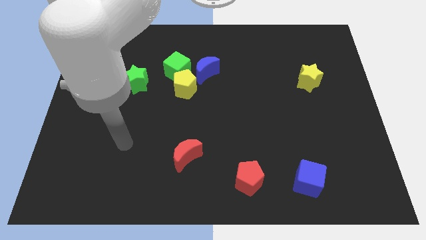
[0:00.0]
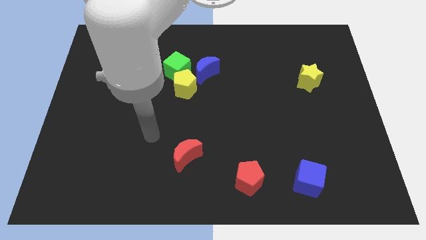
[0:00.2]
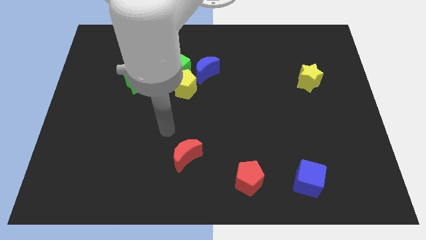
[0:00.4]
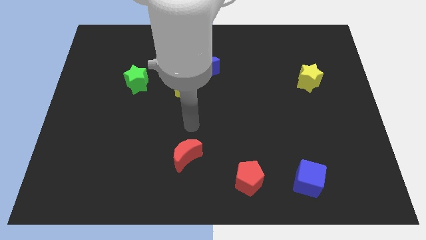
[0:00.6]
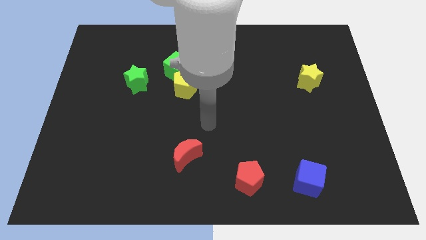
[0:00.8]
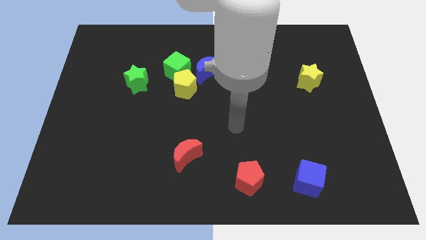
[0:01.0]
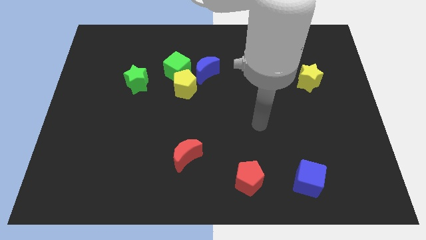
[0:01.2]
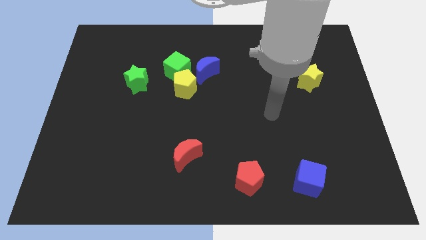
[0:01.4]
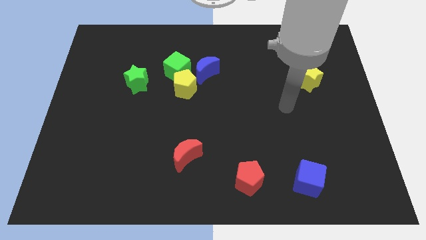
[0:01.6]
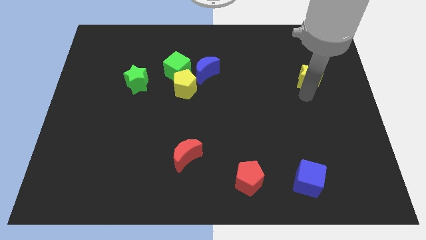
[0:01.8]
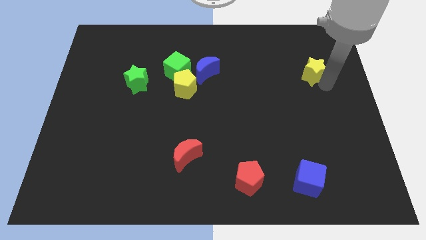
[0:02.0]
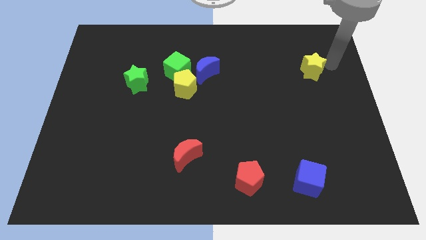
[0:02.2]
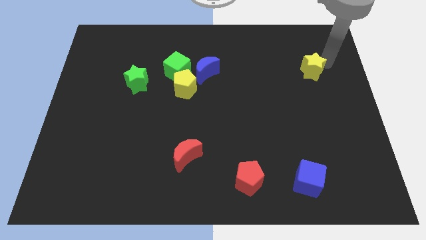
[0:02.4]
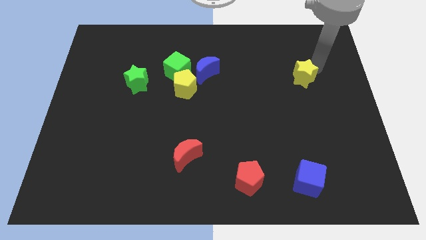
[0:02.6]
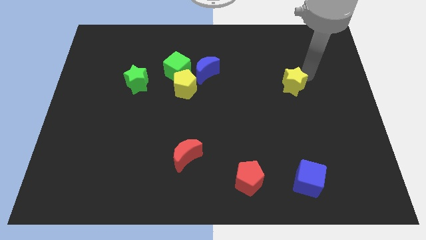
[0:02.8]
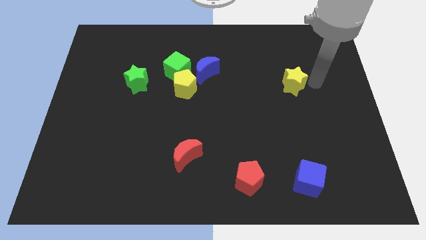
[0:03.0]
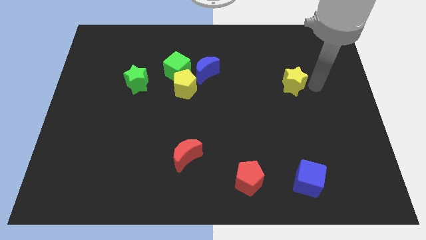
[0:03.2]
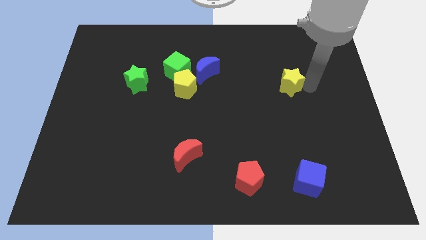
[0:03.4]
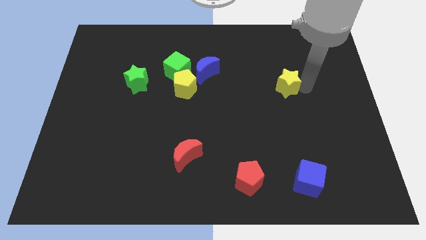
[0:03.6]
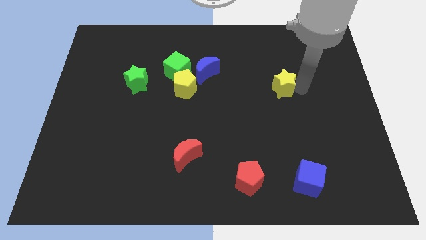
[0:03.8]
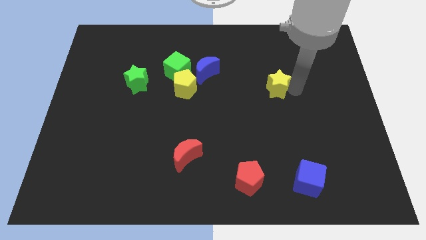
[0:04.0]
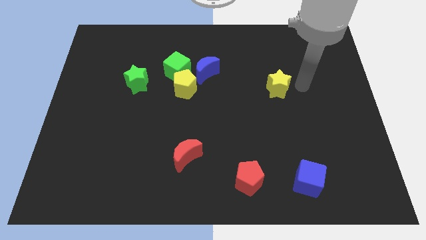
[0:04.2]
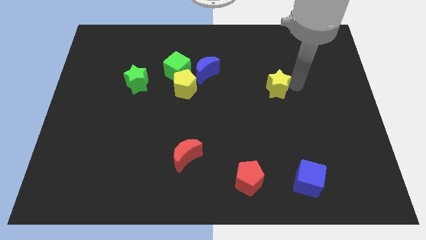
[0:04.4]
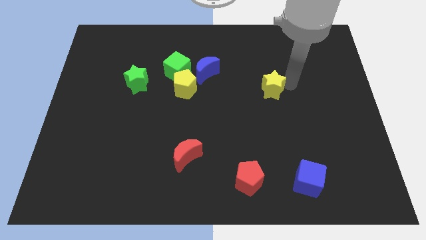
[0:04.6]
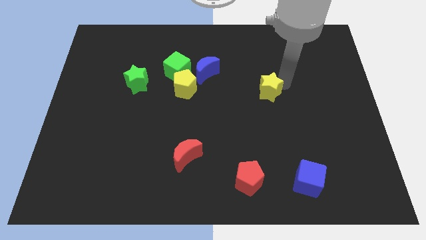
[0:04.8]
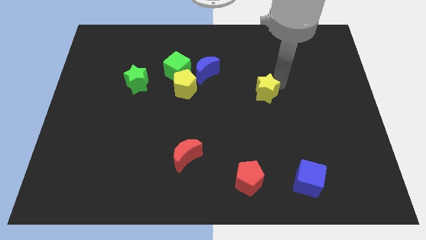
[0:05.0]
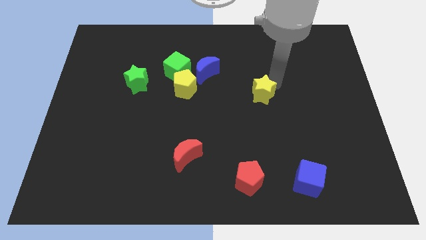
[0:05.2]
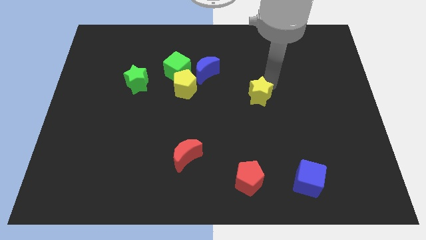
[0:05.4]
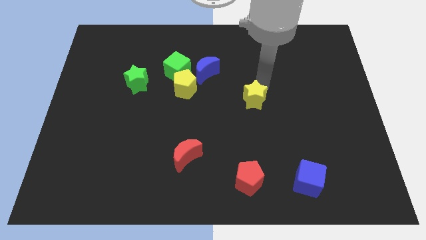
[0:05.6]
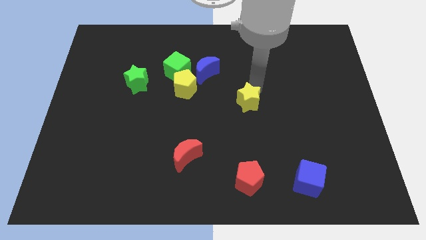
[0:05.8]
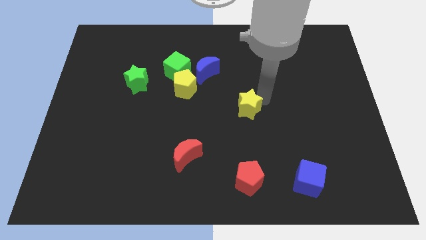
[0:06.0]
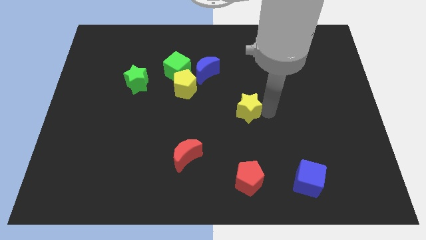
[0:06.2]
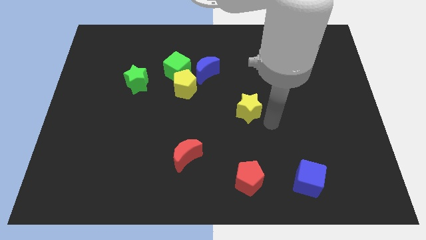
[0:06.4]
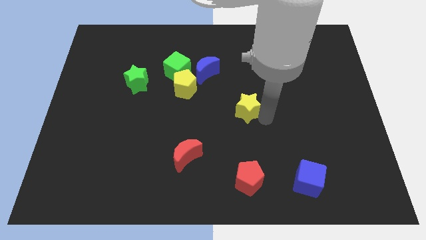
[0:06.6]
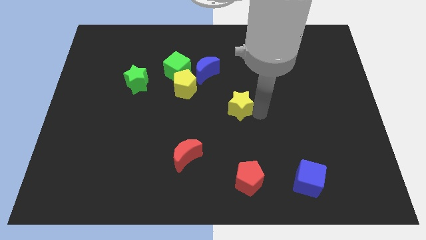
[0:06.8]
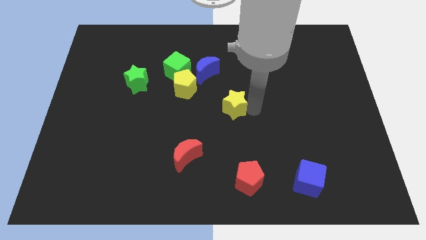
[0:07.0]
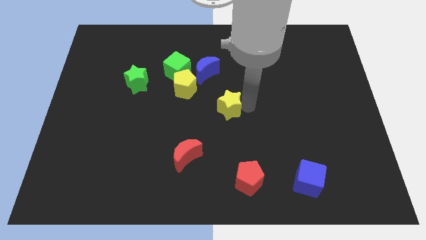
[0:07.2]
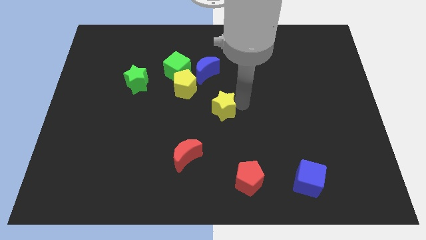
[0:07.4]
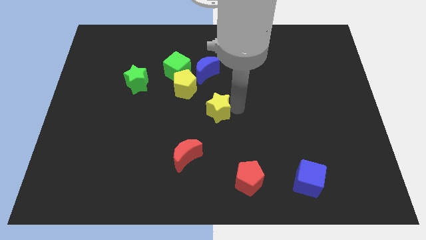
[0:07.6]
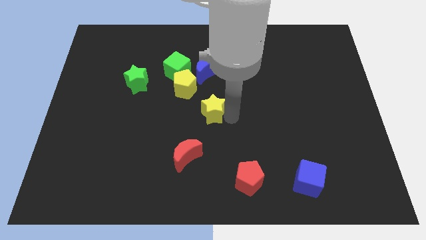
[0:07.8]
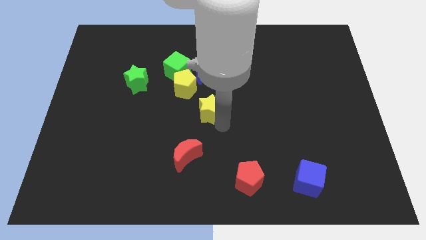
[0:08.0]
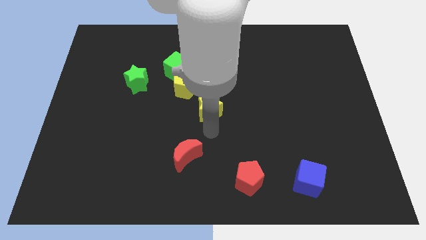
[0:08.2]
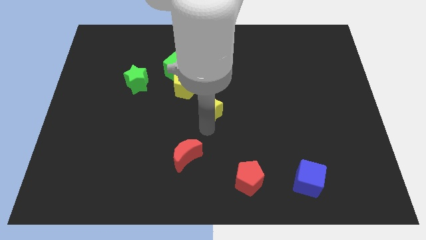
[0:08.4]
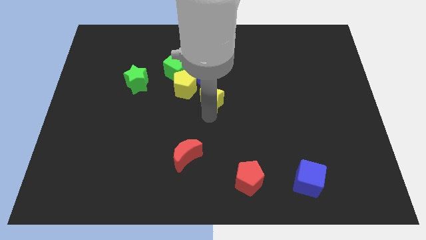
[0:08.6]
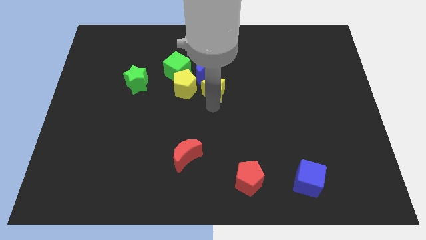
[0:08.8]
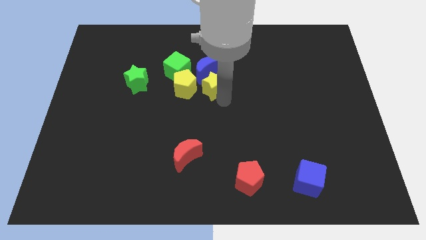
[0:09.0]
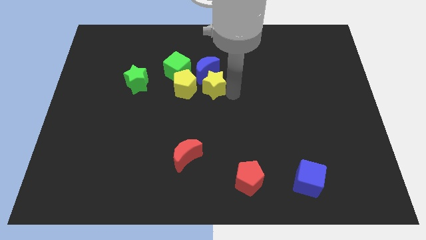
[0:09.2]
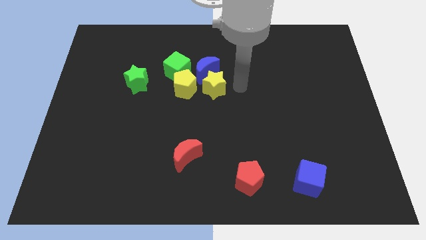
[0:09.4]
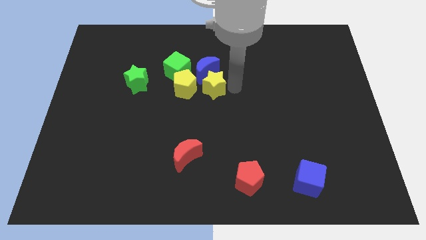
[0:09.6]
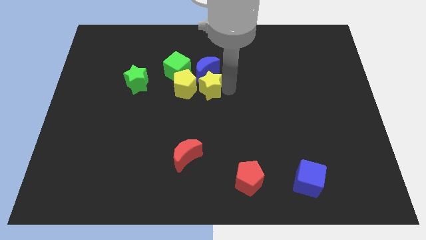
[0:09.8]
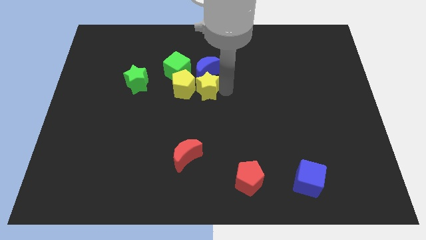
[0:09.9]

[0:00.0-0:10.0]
move the yellow star to the yellow pentagon

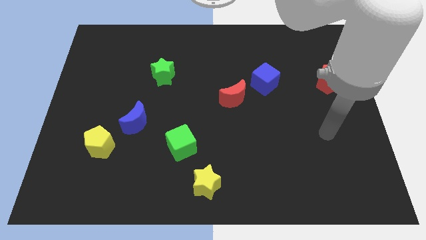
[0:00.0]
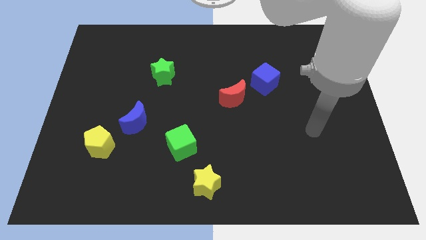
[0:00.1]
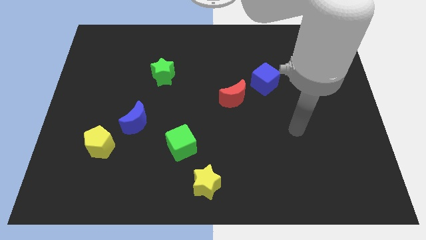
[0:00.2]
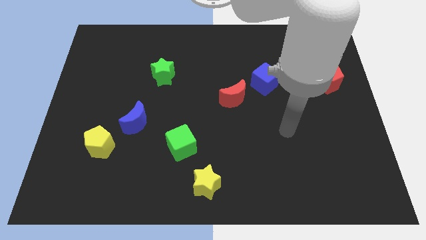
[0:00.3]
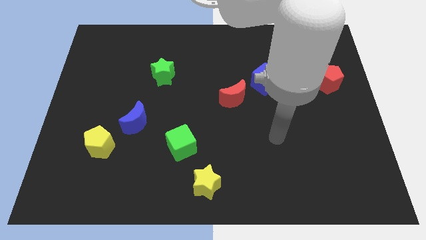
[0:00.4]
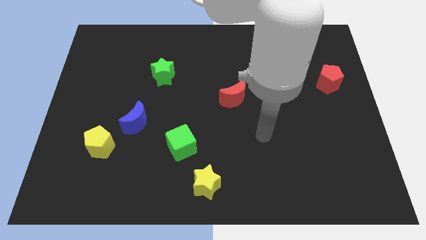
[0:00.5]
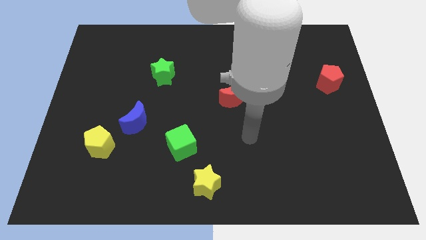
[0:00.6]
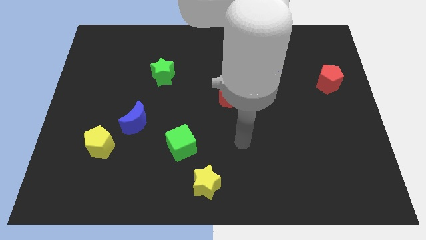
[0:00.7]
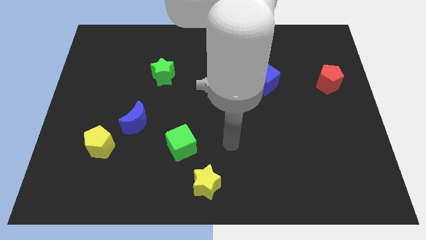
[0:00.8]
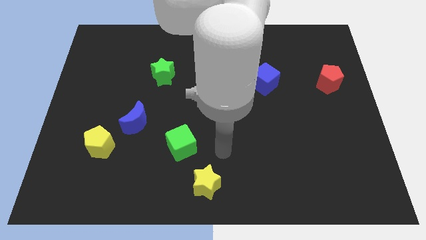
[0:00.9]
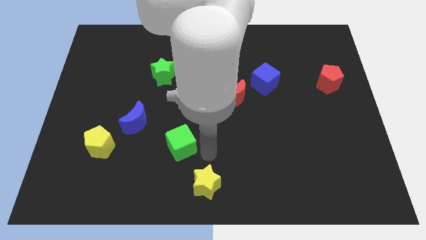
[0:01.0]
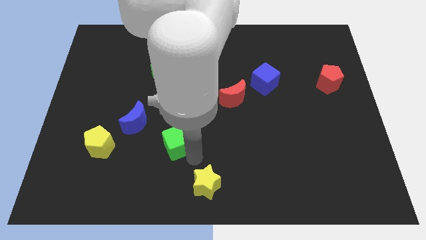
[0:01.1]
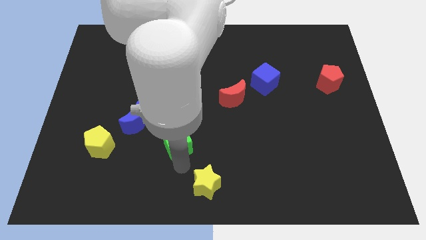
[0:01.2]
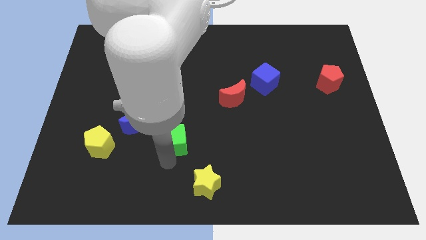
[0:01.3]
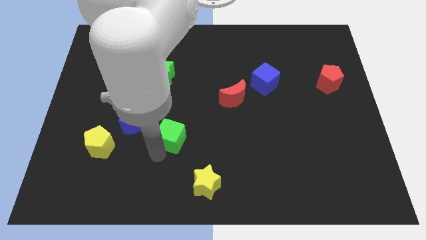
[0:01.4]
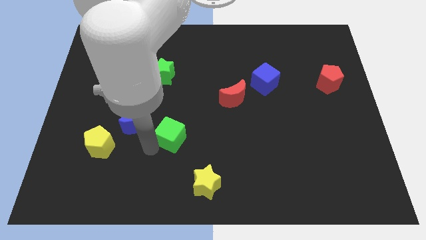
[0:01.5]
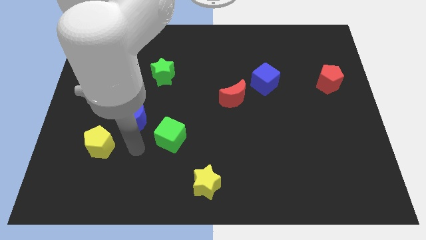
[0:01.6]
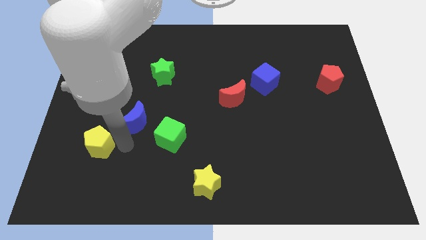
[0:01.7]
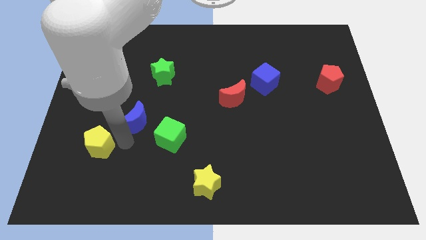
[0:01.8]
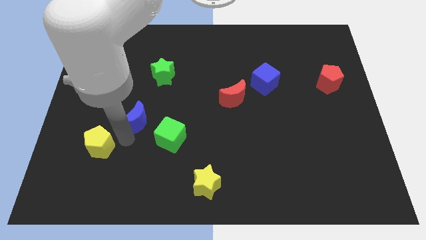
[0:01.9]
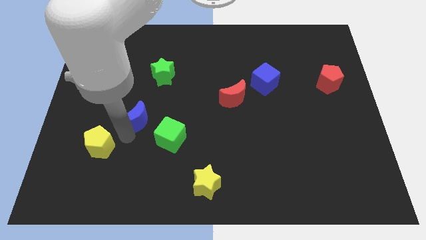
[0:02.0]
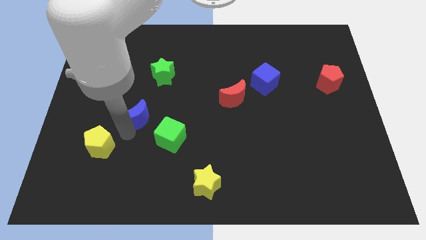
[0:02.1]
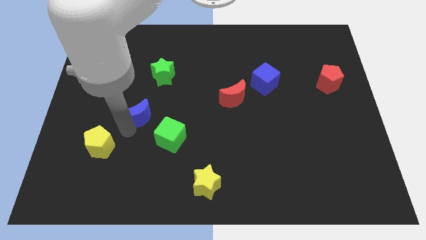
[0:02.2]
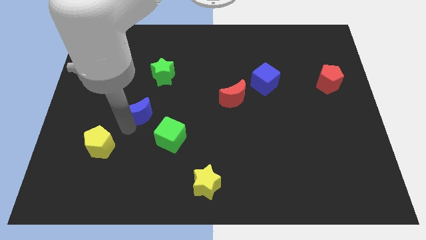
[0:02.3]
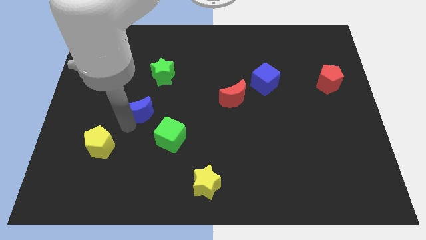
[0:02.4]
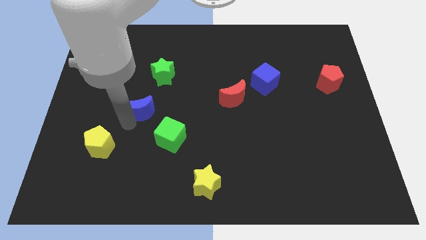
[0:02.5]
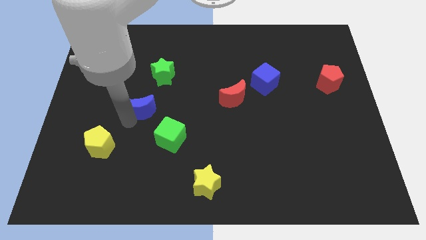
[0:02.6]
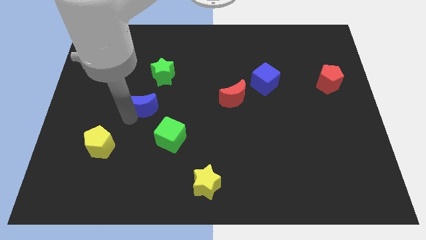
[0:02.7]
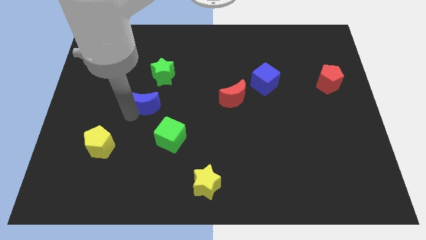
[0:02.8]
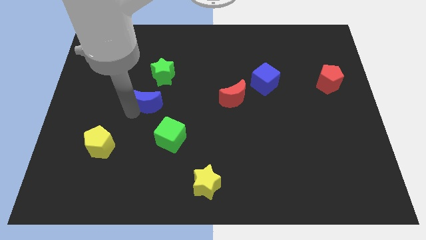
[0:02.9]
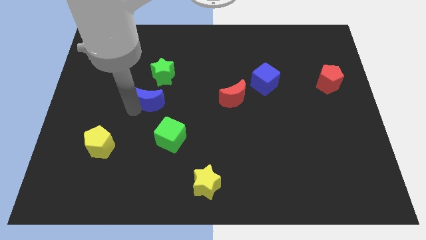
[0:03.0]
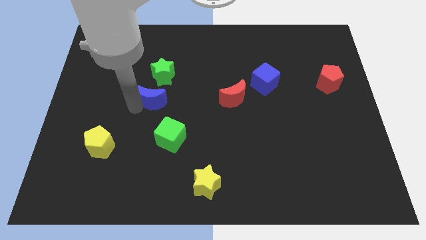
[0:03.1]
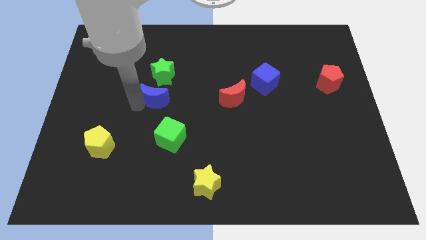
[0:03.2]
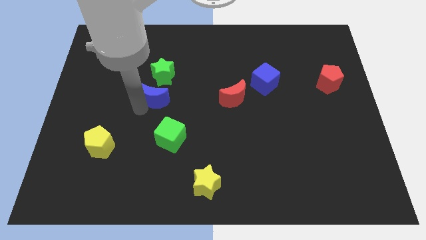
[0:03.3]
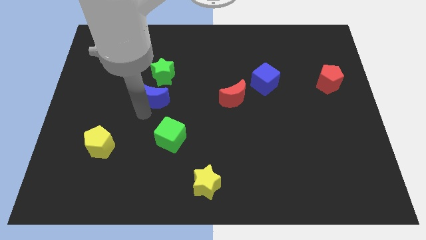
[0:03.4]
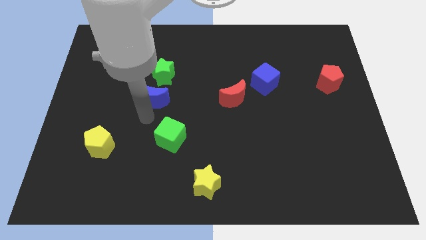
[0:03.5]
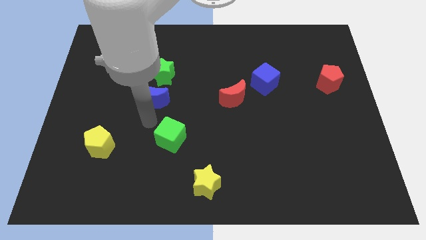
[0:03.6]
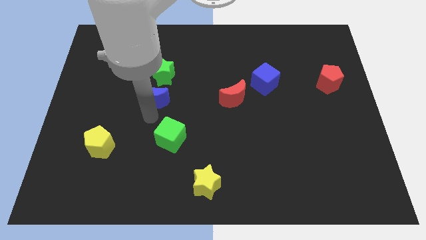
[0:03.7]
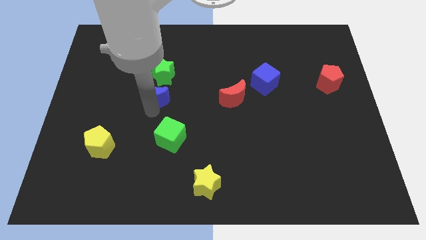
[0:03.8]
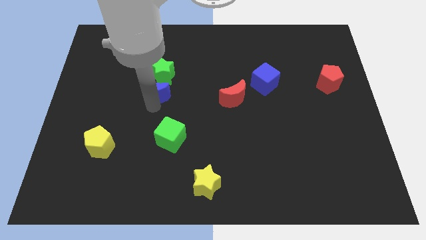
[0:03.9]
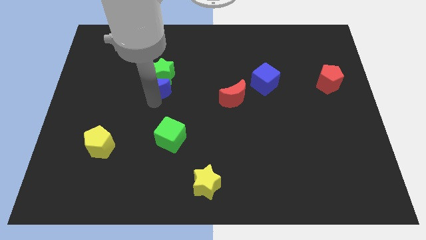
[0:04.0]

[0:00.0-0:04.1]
slide the blue moon towards the green star
